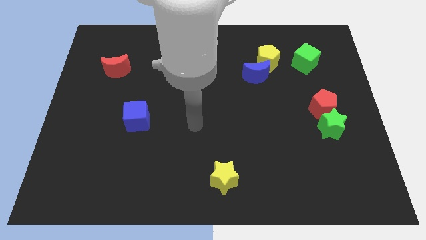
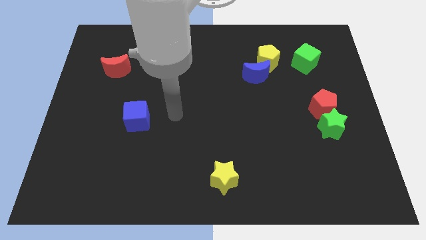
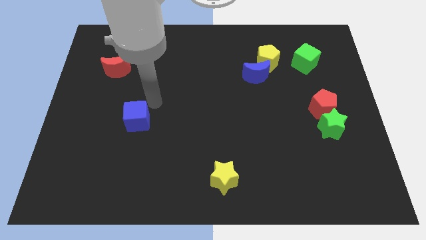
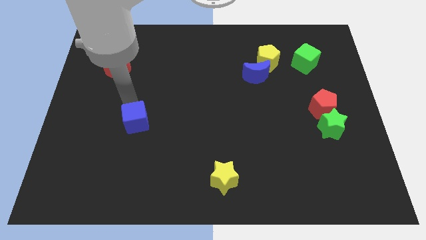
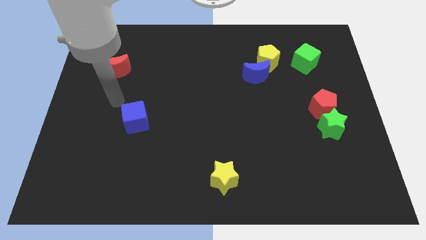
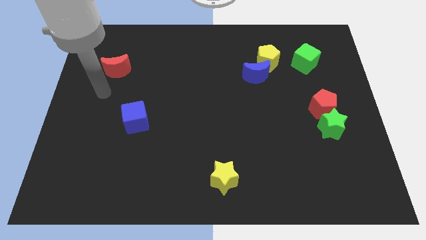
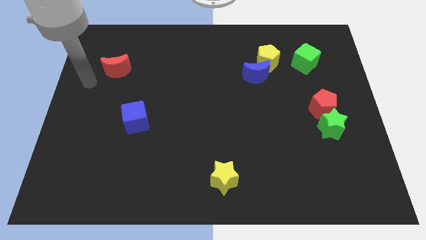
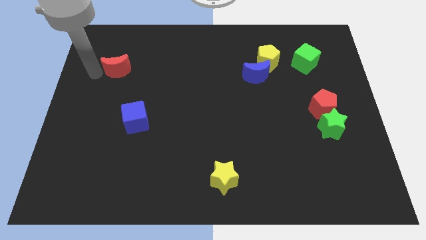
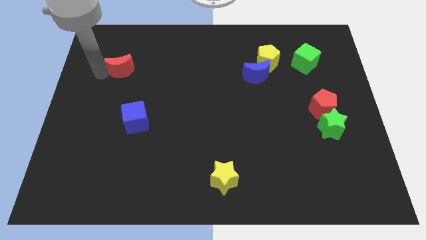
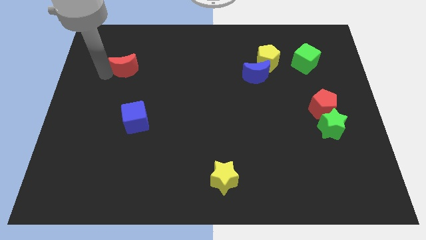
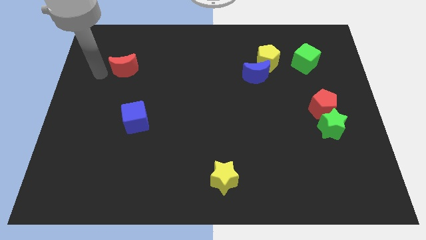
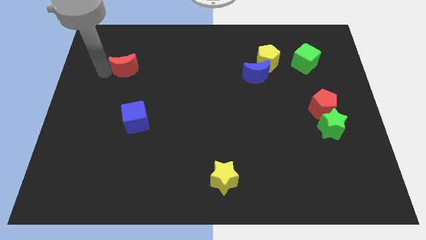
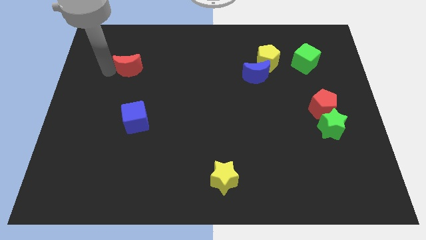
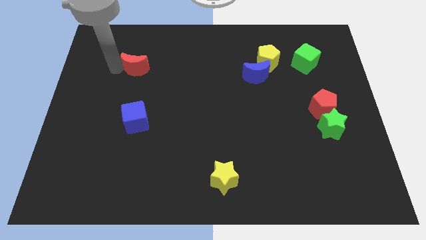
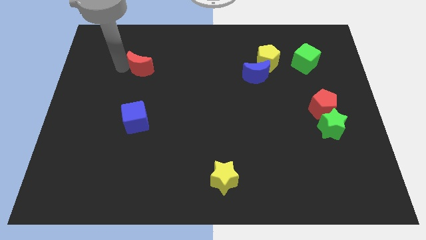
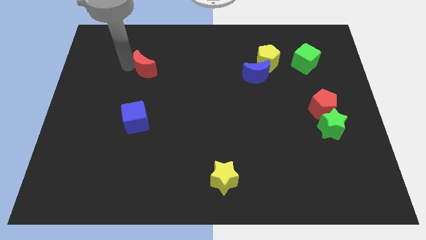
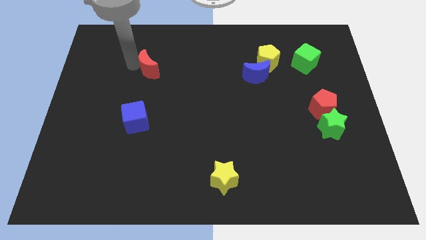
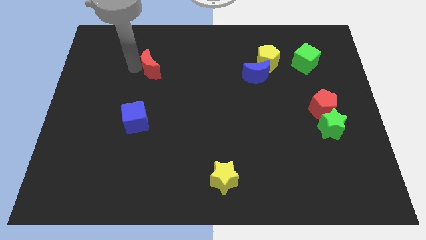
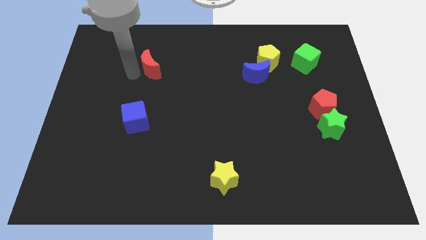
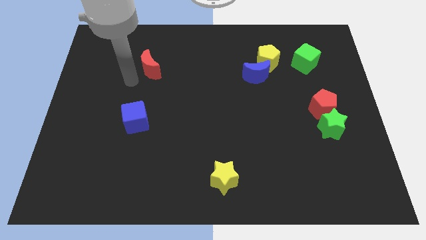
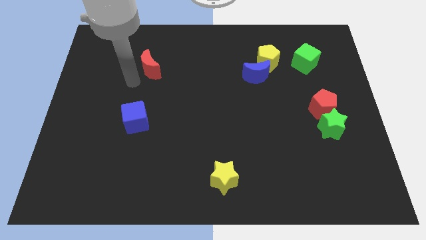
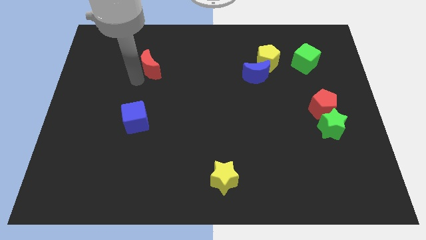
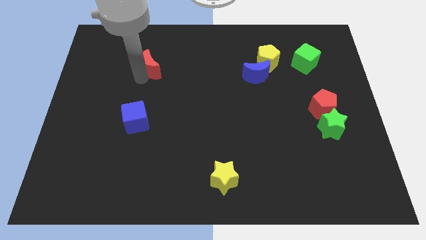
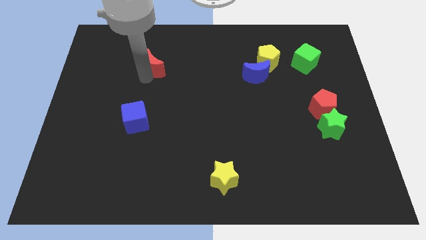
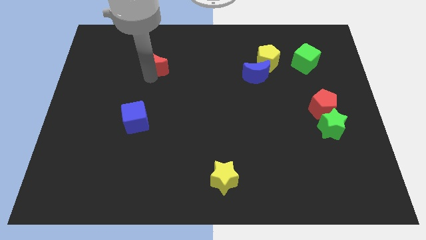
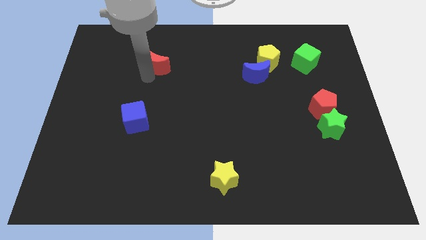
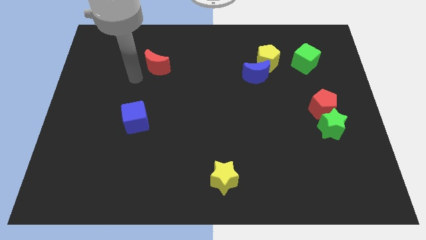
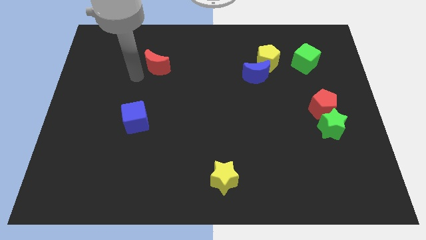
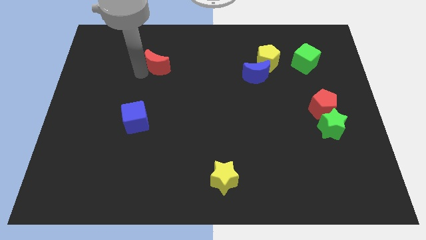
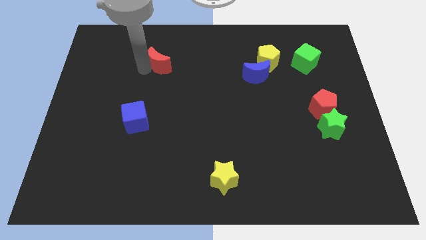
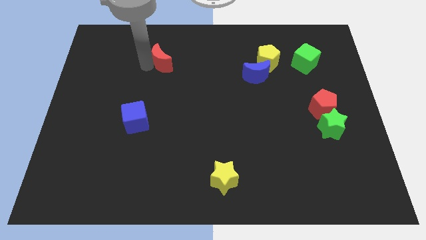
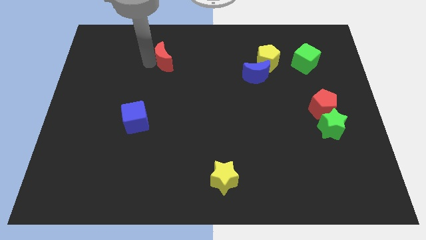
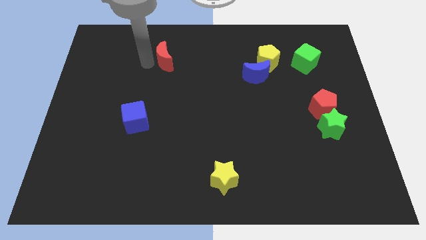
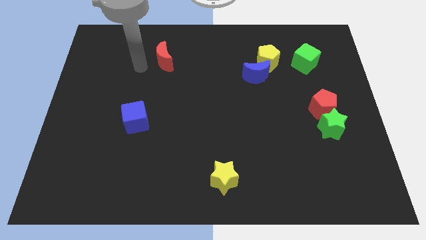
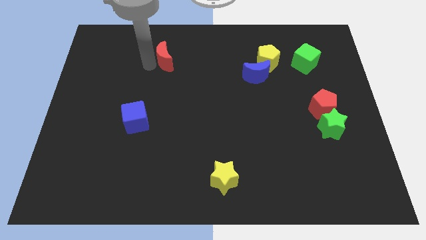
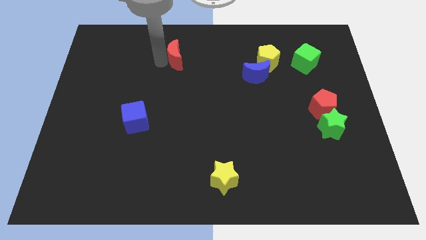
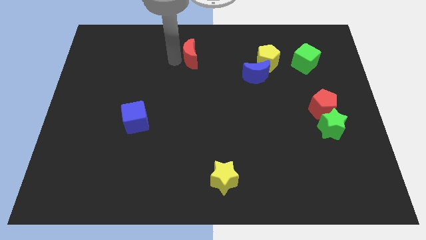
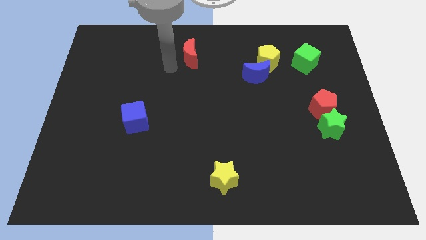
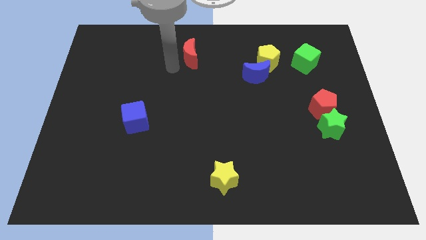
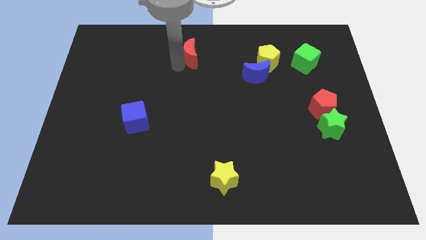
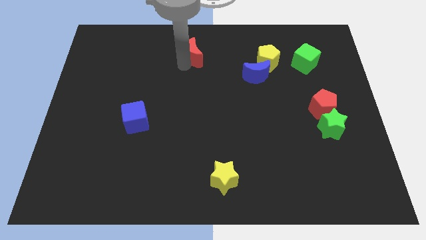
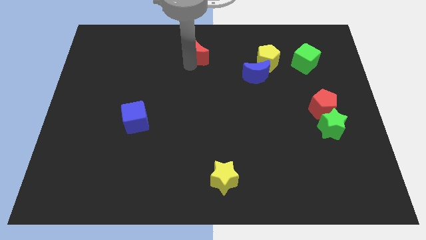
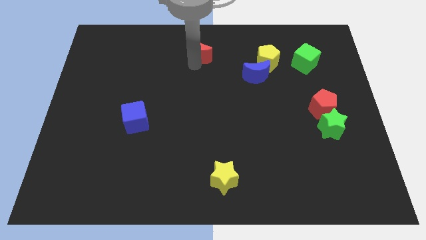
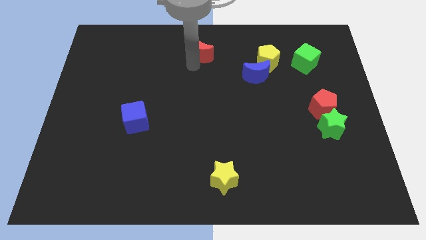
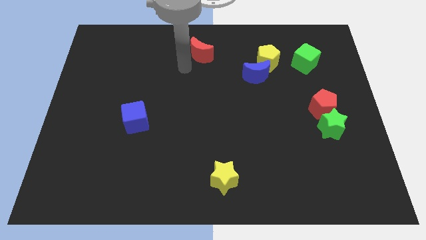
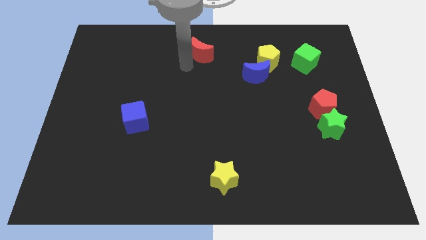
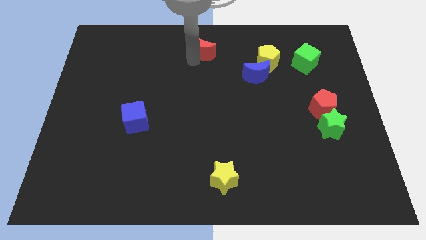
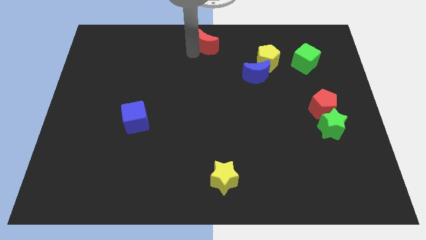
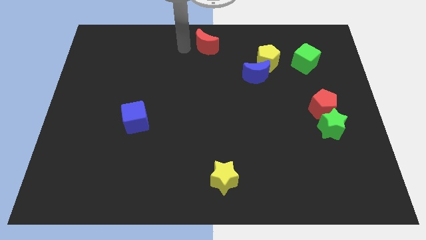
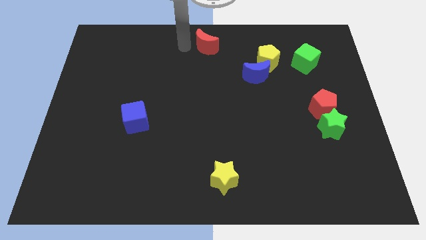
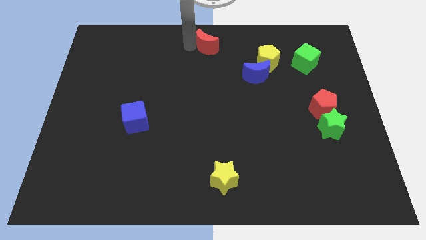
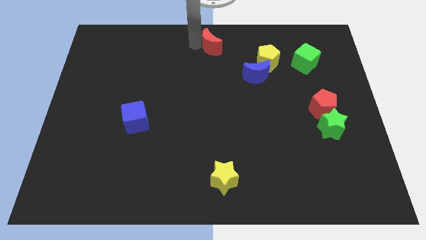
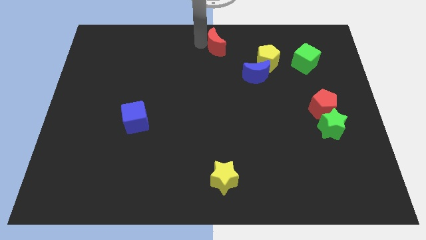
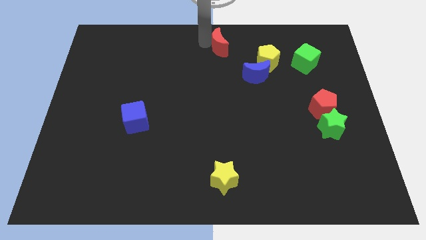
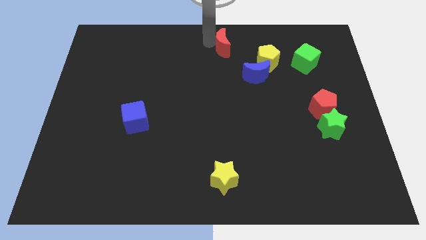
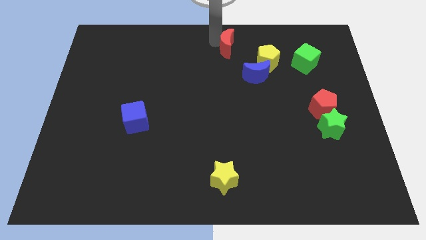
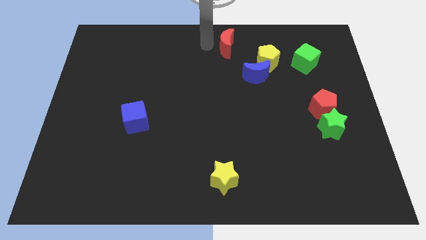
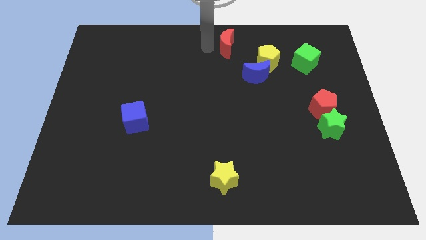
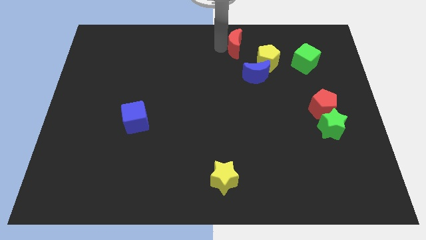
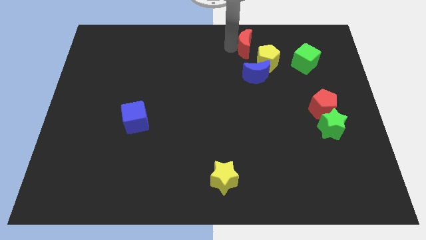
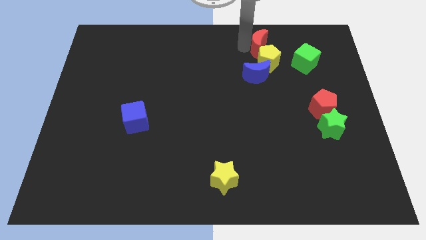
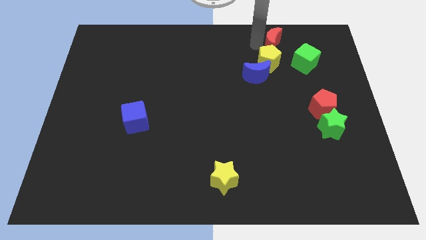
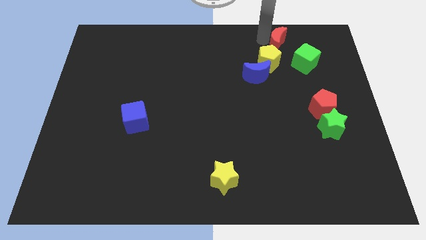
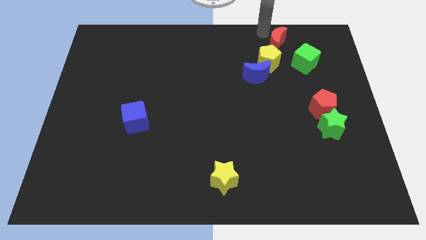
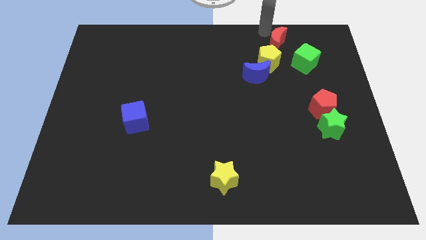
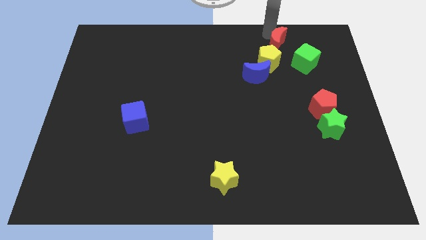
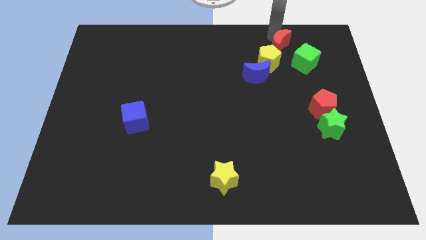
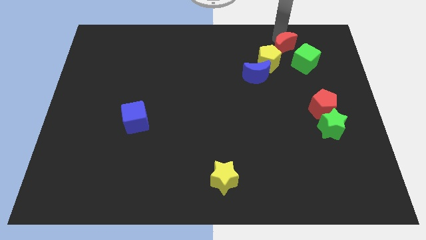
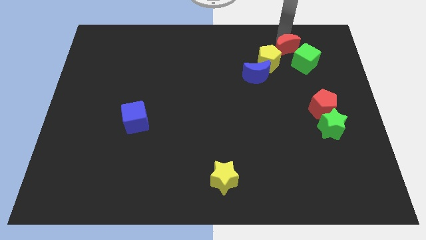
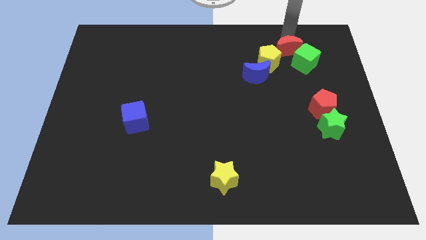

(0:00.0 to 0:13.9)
move the red moon next to the green cube

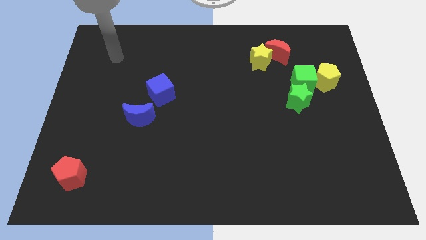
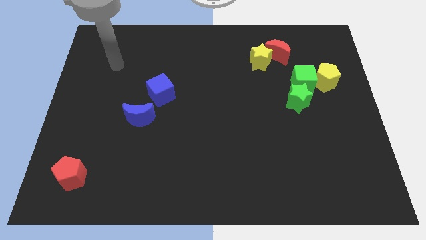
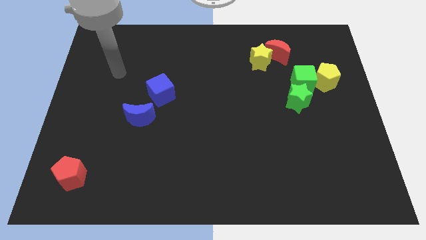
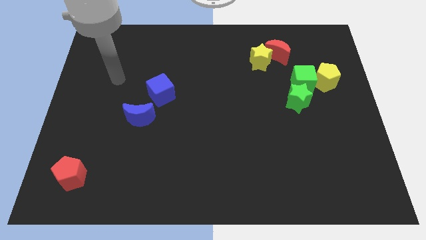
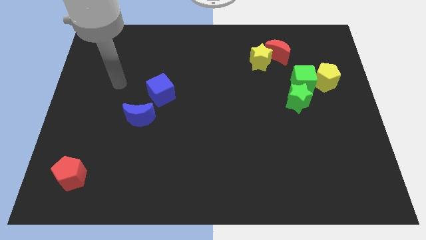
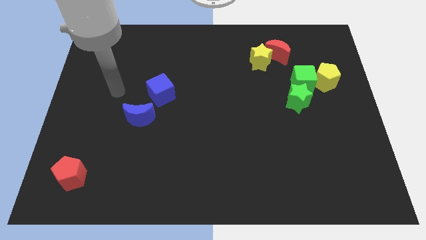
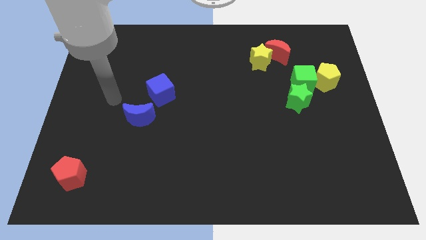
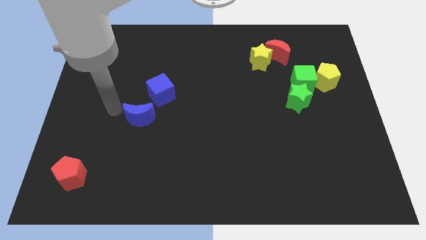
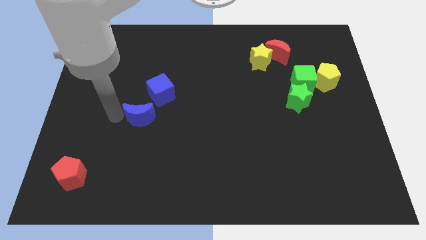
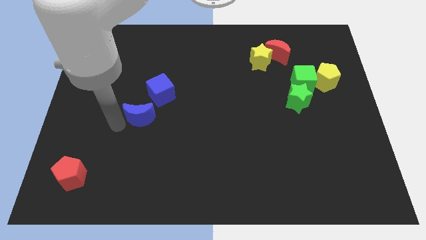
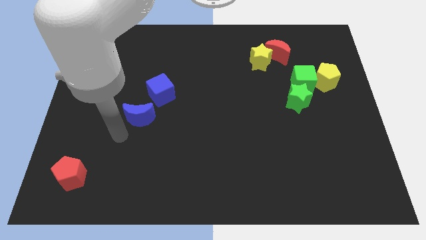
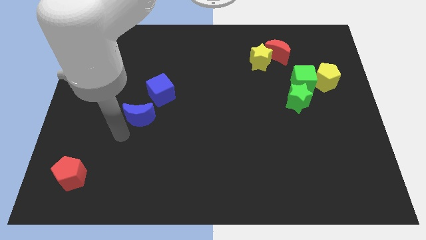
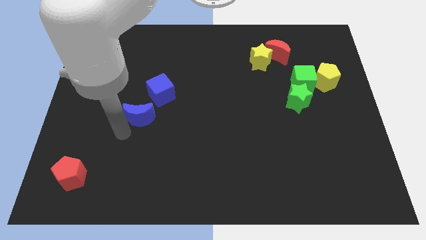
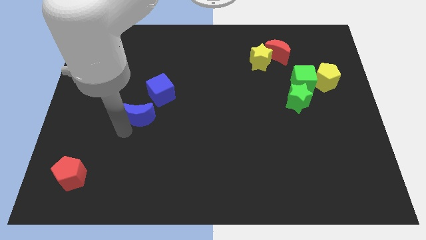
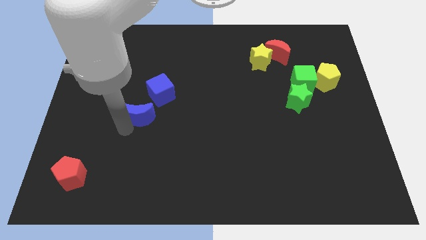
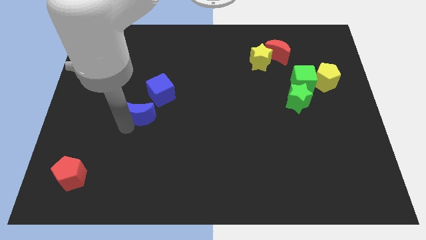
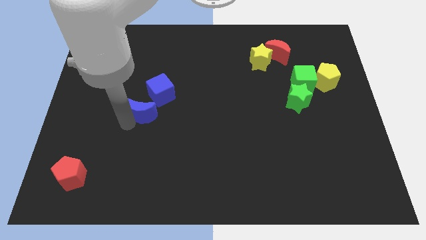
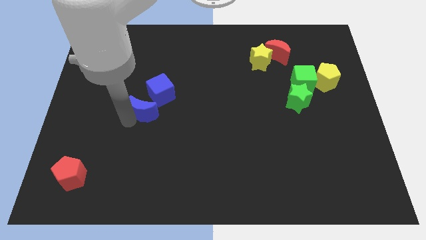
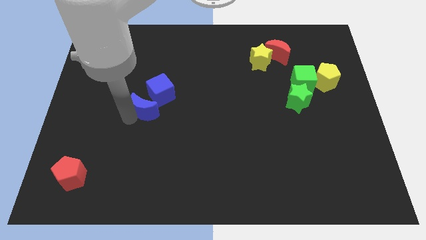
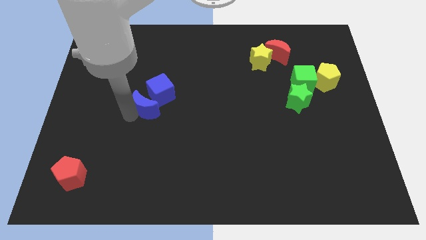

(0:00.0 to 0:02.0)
slide the blue moon close to the blue cube
